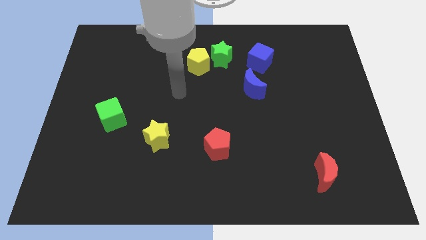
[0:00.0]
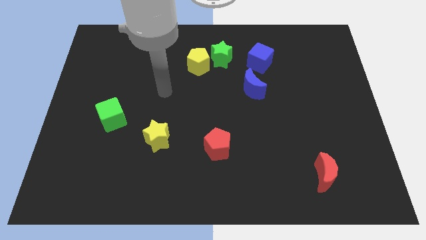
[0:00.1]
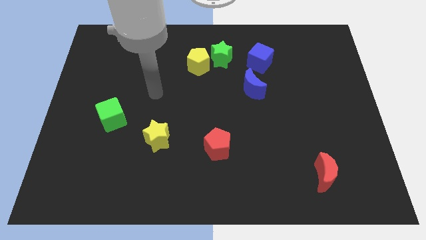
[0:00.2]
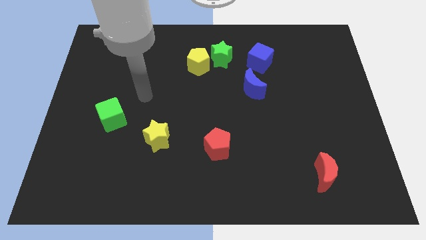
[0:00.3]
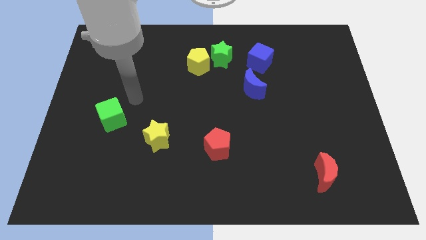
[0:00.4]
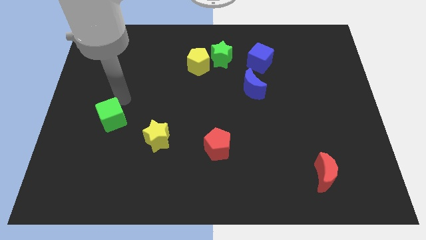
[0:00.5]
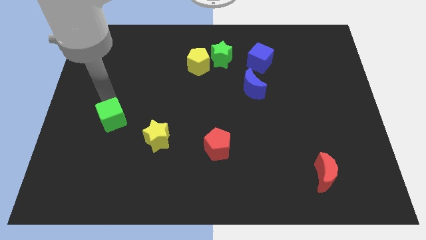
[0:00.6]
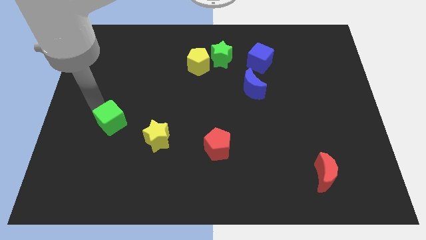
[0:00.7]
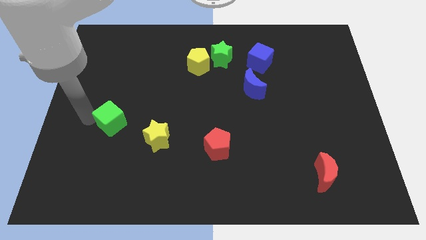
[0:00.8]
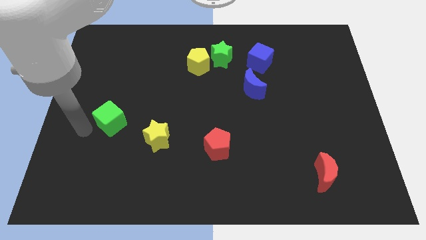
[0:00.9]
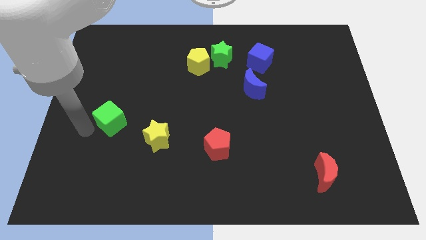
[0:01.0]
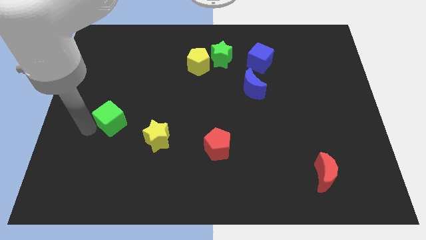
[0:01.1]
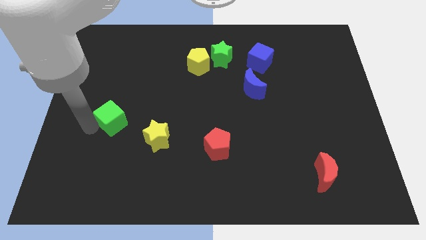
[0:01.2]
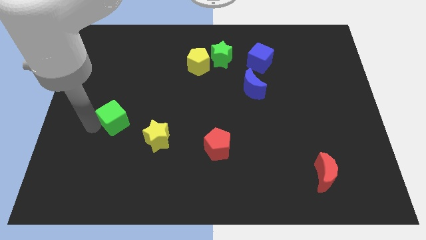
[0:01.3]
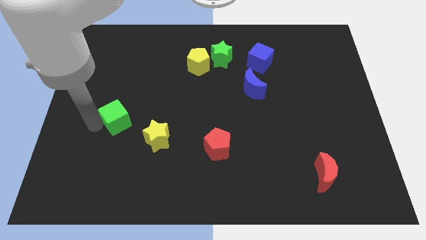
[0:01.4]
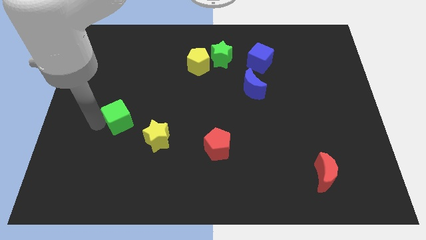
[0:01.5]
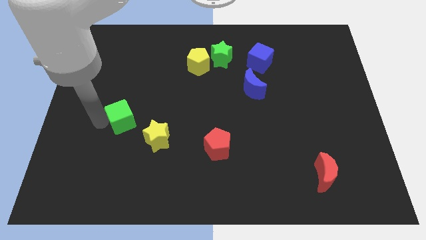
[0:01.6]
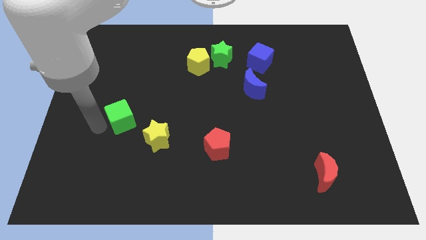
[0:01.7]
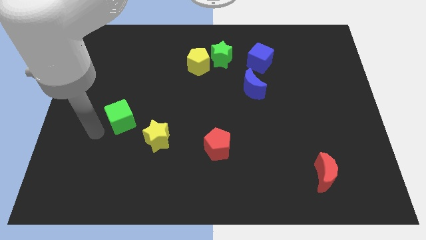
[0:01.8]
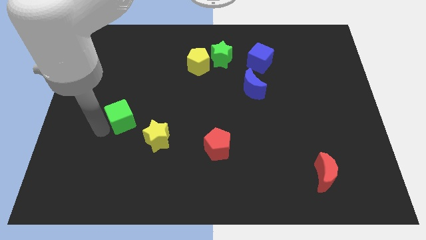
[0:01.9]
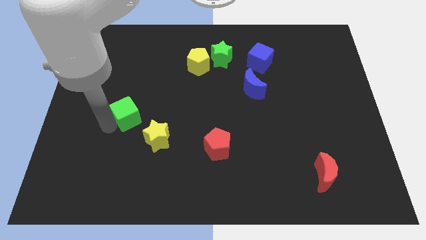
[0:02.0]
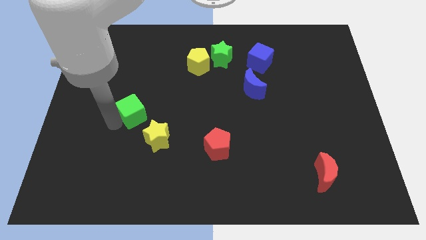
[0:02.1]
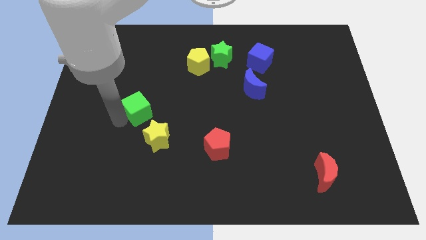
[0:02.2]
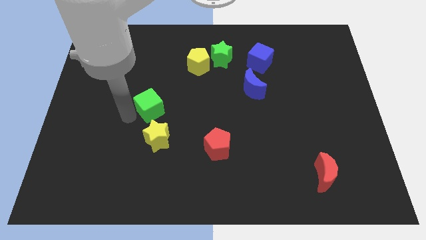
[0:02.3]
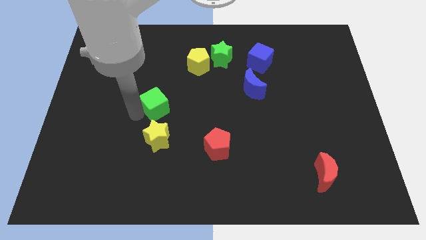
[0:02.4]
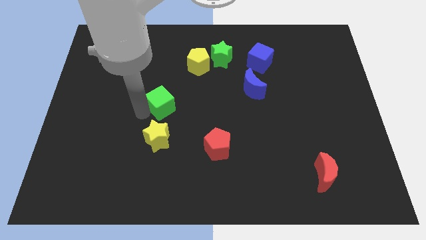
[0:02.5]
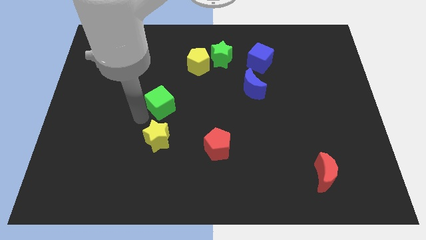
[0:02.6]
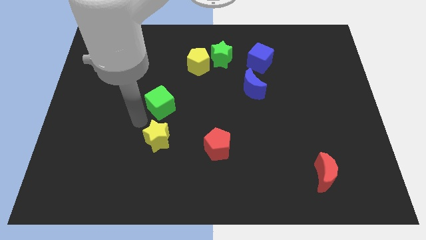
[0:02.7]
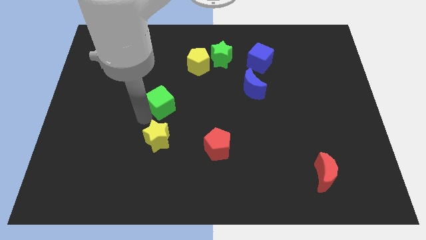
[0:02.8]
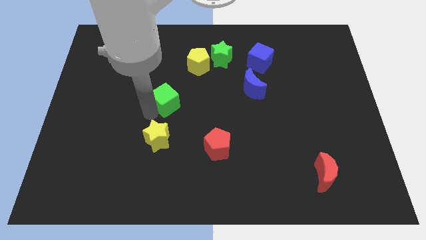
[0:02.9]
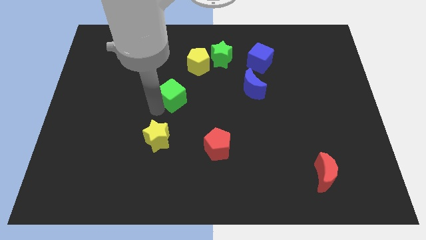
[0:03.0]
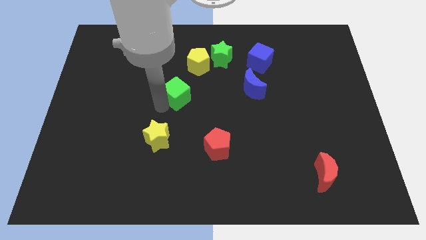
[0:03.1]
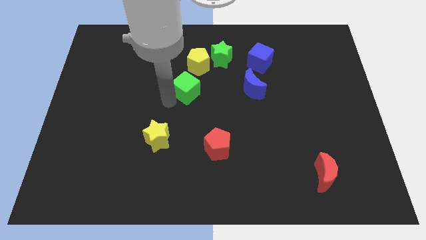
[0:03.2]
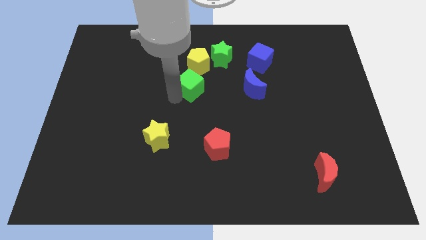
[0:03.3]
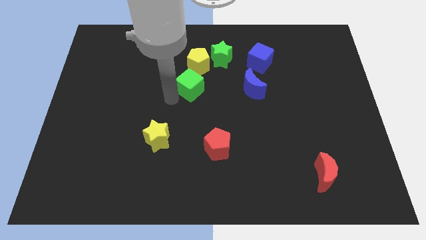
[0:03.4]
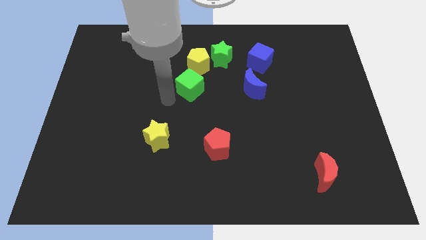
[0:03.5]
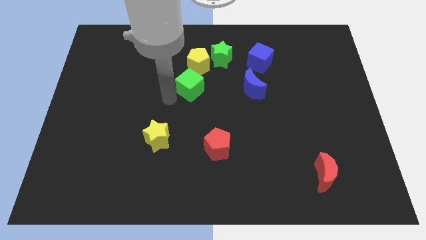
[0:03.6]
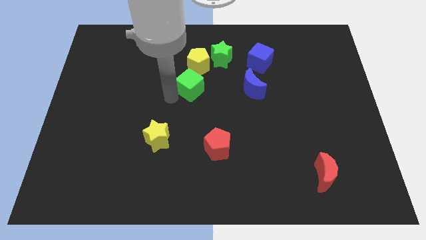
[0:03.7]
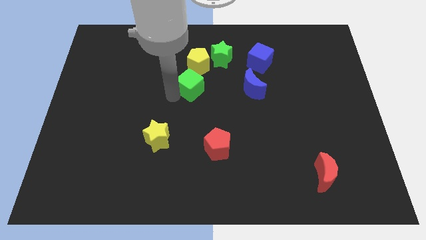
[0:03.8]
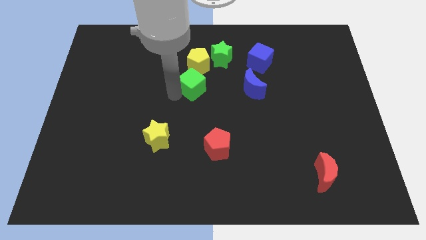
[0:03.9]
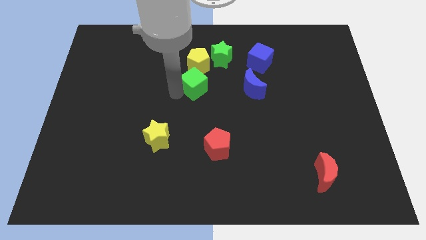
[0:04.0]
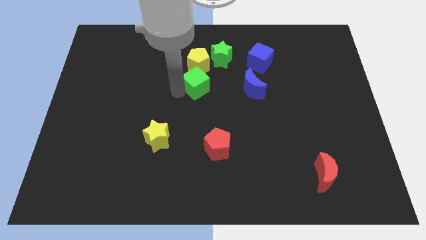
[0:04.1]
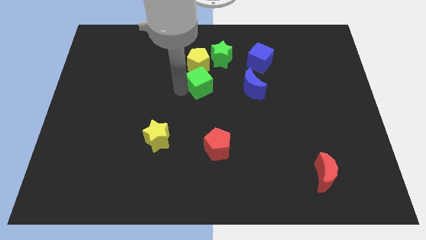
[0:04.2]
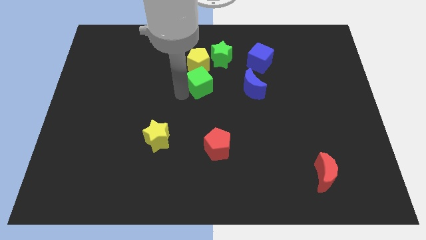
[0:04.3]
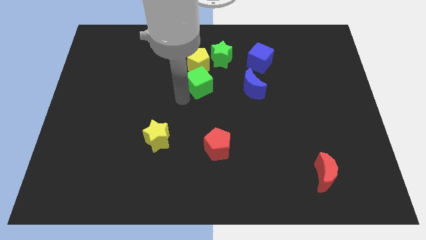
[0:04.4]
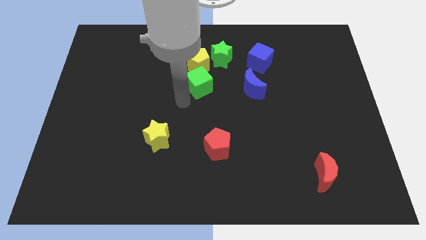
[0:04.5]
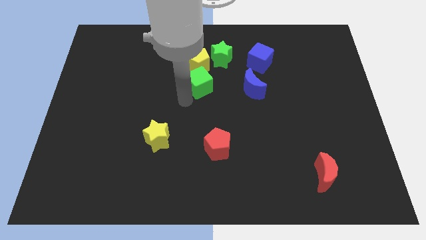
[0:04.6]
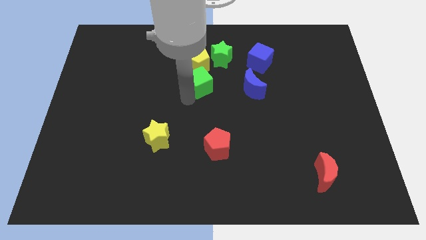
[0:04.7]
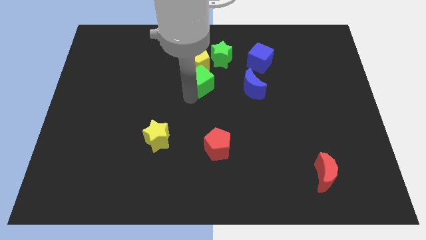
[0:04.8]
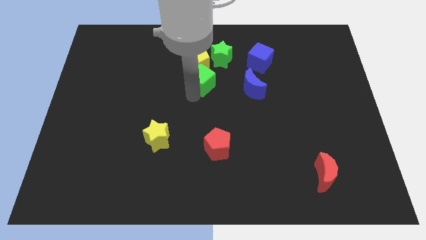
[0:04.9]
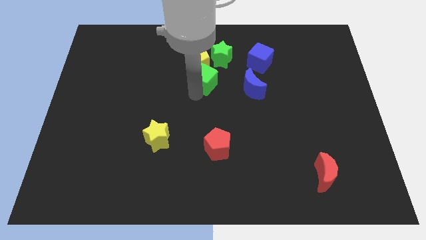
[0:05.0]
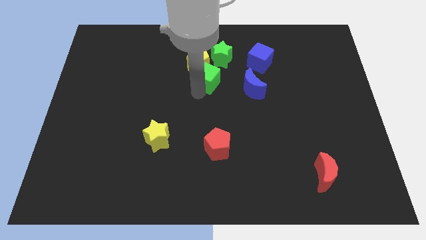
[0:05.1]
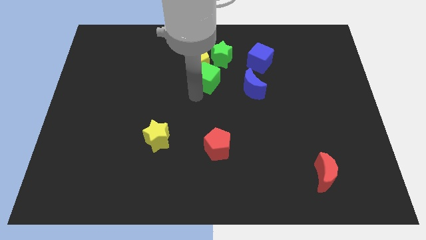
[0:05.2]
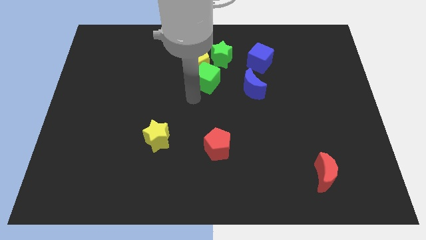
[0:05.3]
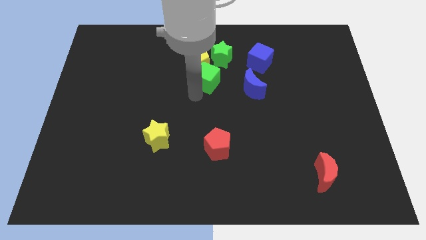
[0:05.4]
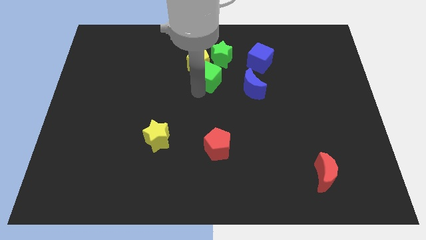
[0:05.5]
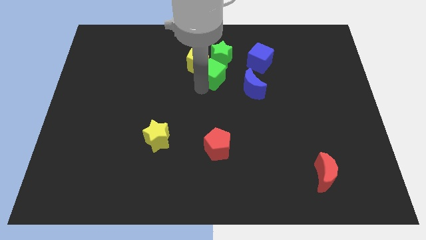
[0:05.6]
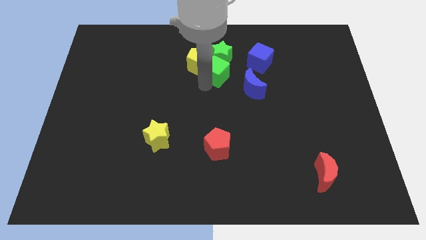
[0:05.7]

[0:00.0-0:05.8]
move the green cube close to the green star

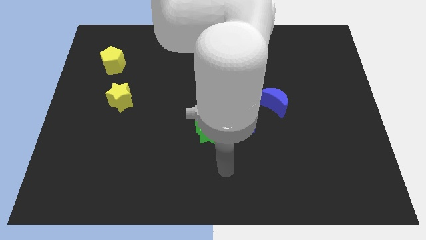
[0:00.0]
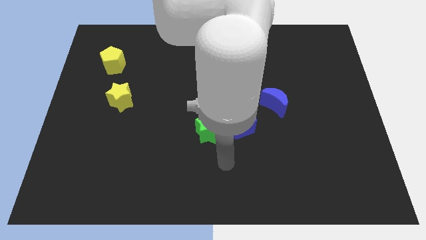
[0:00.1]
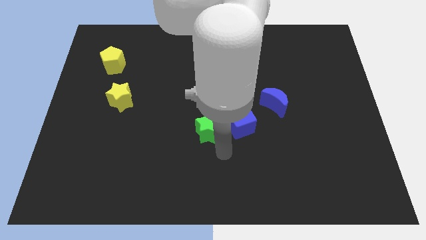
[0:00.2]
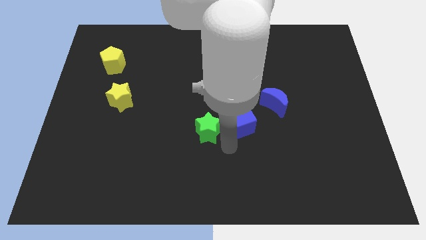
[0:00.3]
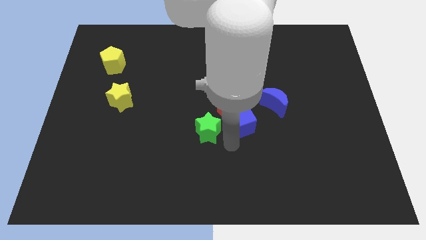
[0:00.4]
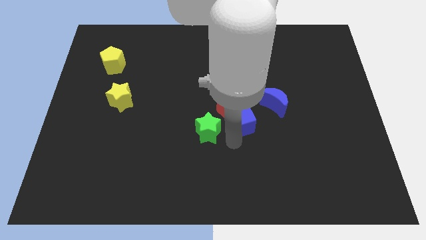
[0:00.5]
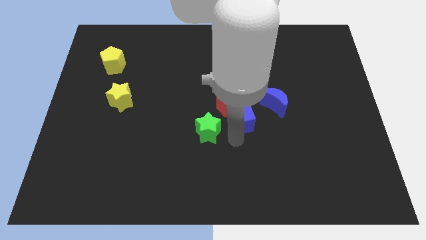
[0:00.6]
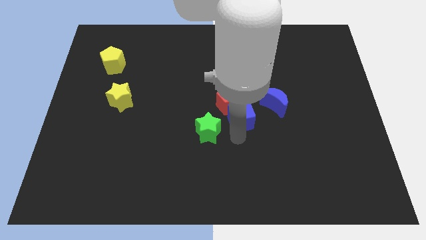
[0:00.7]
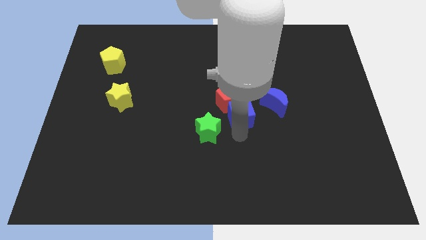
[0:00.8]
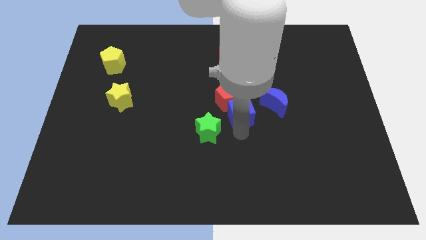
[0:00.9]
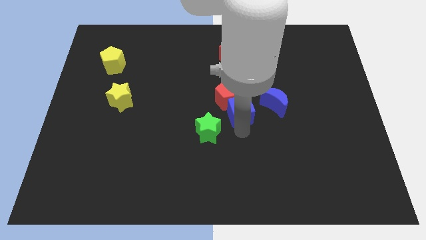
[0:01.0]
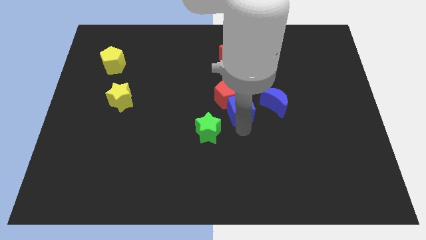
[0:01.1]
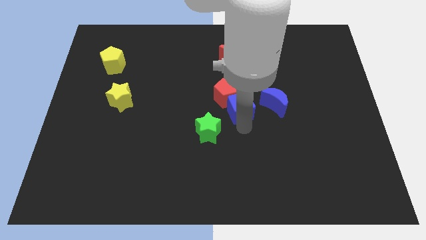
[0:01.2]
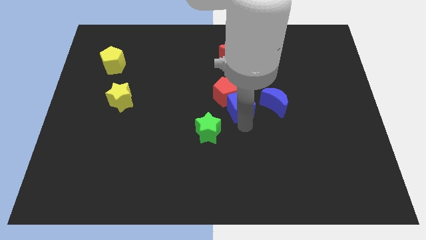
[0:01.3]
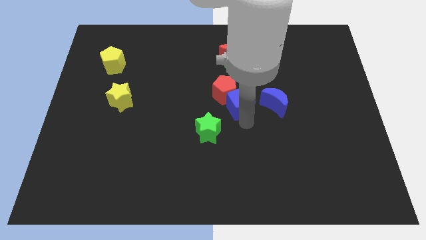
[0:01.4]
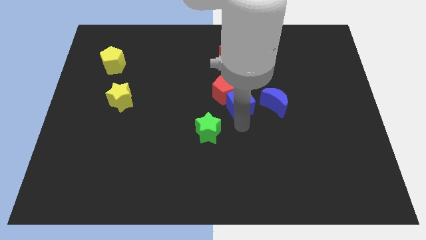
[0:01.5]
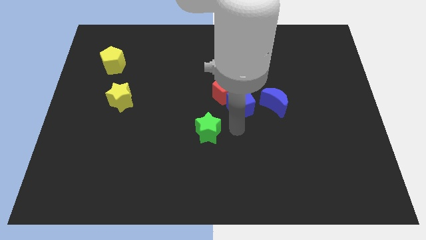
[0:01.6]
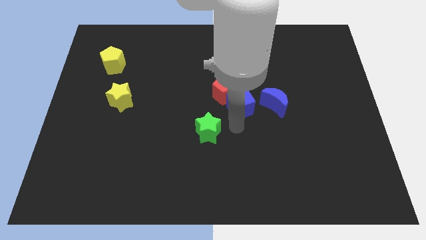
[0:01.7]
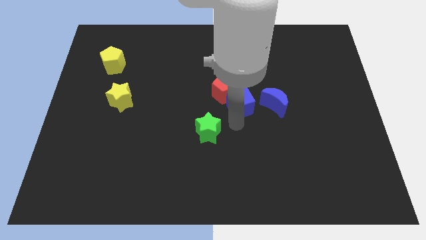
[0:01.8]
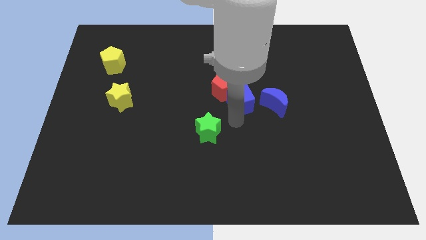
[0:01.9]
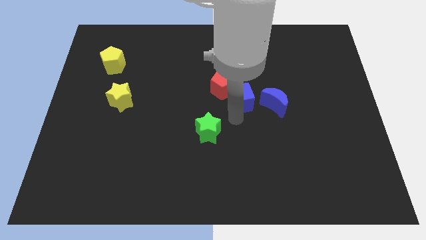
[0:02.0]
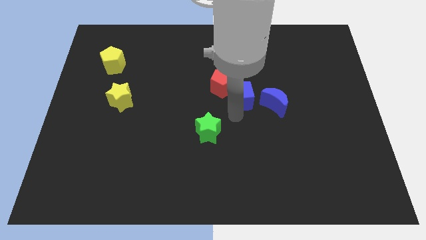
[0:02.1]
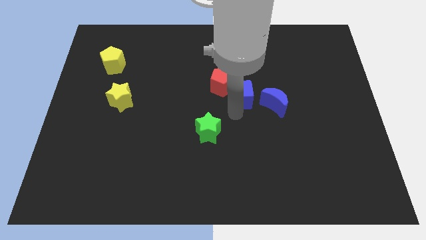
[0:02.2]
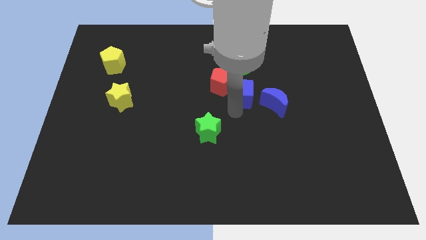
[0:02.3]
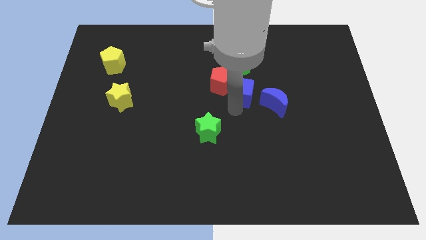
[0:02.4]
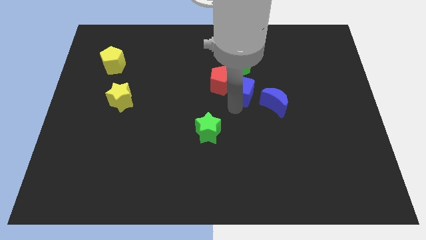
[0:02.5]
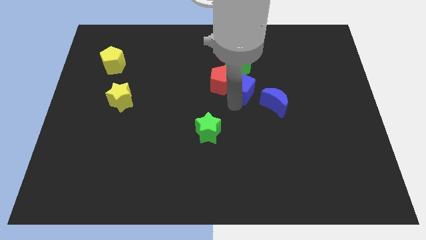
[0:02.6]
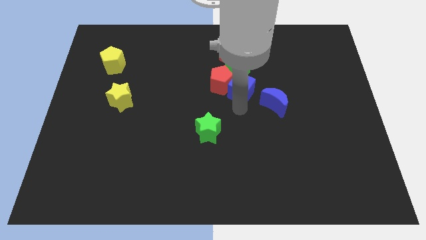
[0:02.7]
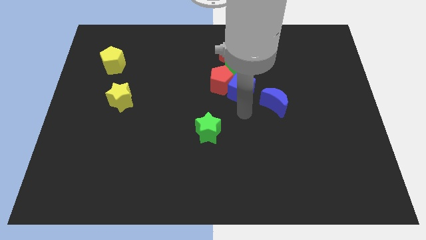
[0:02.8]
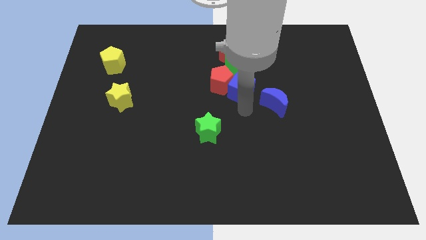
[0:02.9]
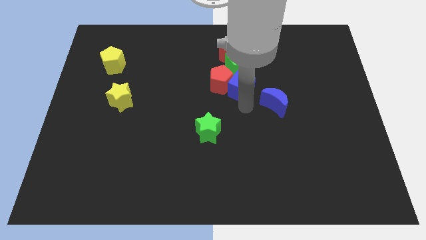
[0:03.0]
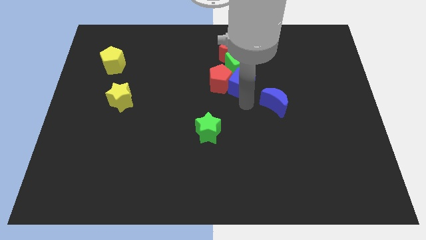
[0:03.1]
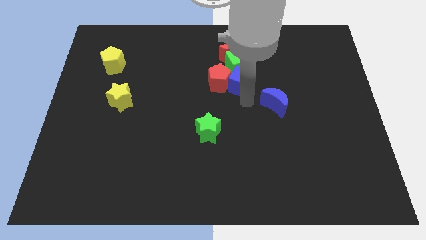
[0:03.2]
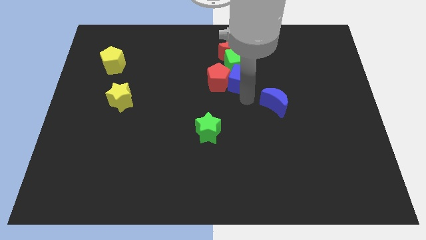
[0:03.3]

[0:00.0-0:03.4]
slide the blue cube close to the green cube
